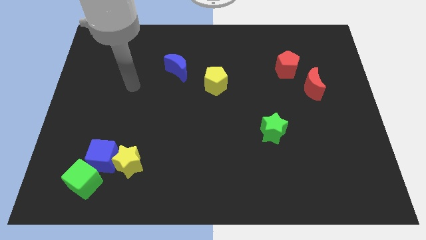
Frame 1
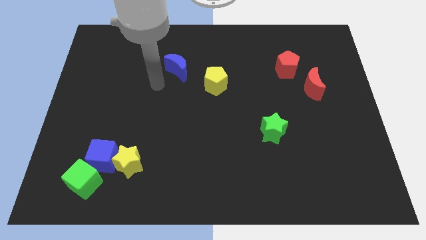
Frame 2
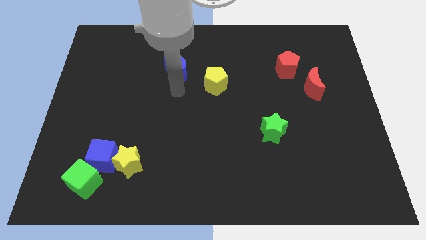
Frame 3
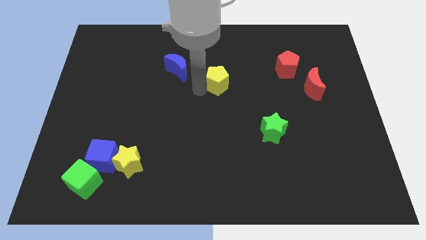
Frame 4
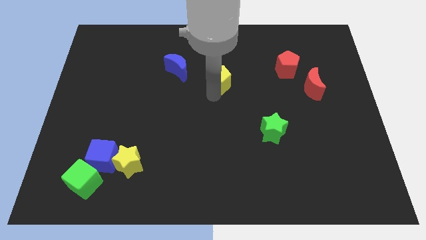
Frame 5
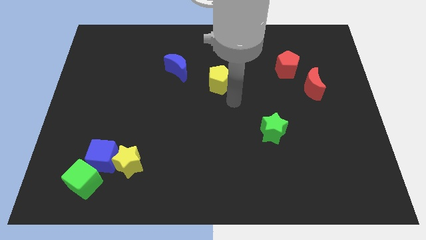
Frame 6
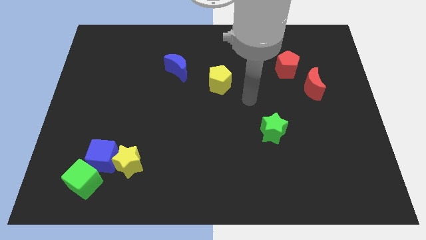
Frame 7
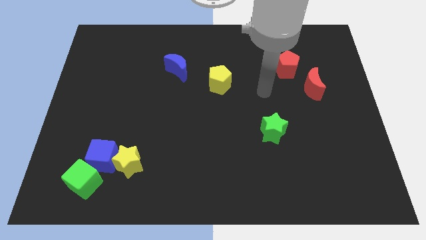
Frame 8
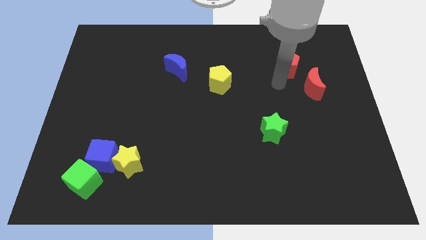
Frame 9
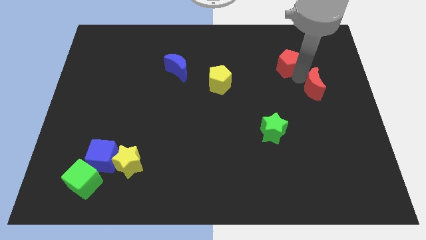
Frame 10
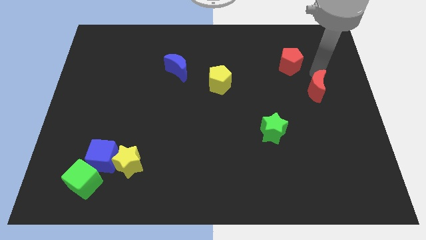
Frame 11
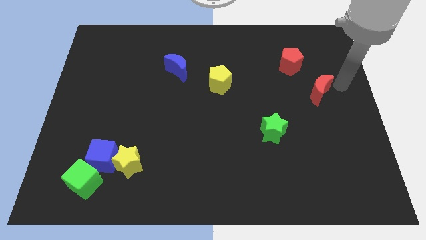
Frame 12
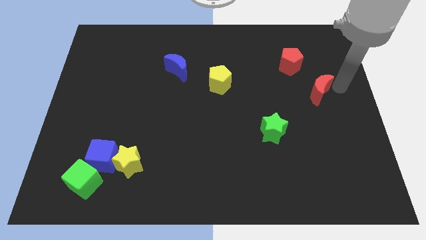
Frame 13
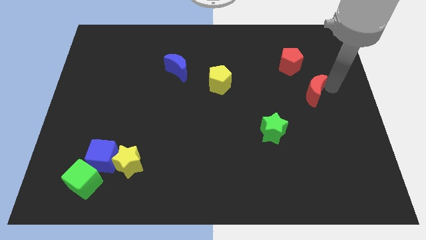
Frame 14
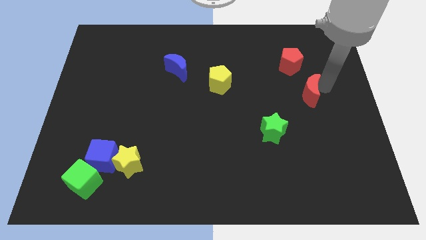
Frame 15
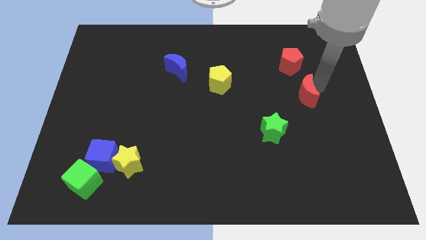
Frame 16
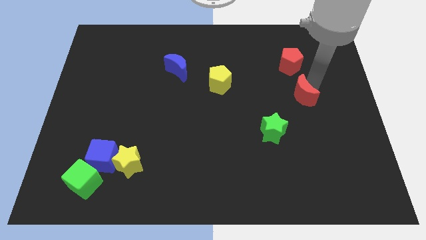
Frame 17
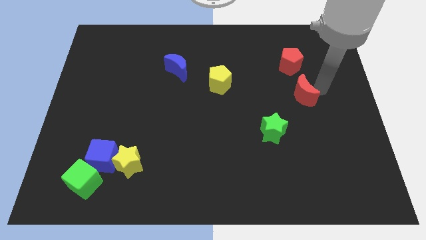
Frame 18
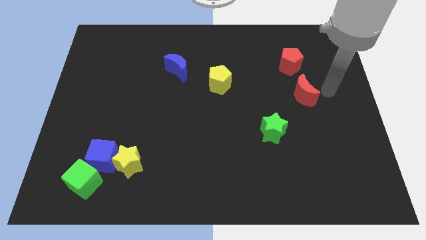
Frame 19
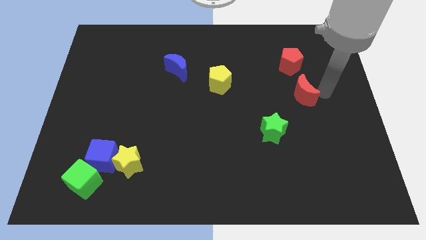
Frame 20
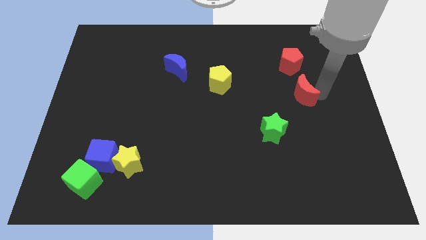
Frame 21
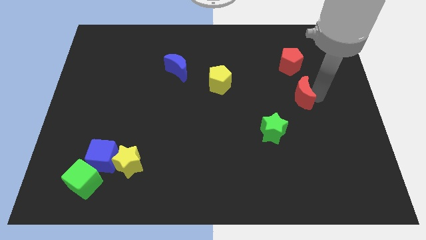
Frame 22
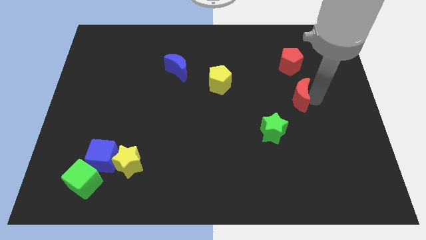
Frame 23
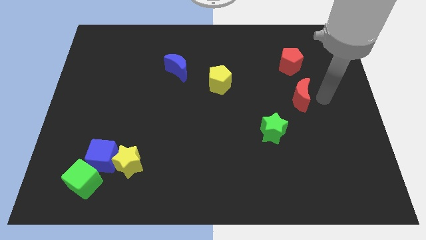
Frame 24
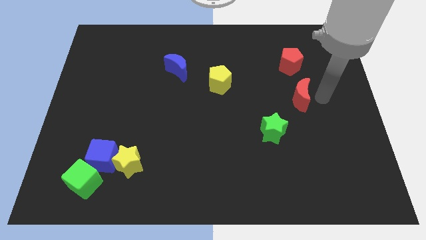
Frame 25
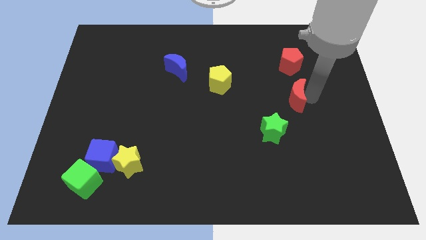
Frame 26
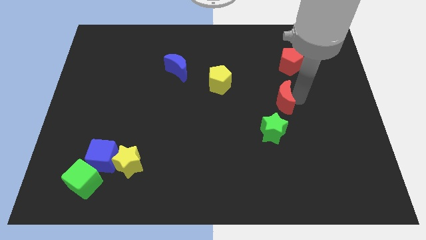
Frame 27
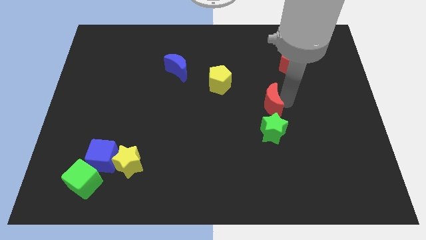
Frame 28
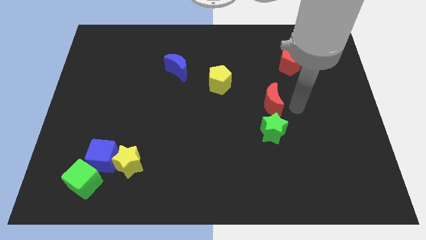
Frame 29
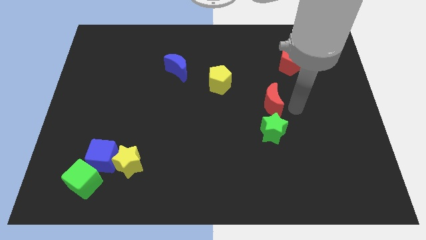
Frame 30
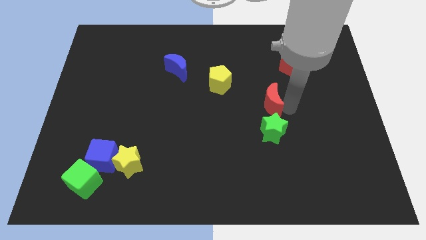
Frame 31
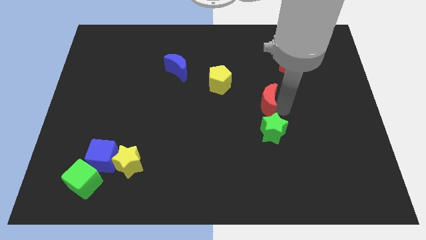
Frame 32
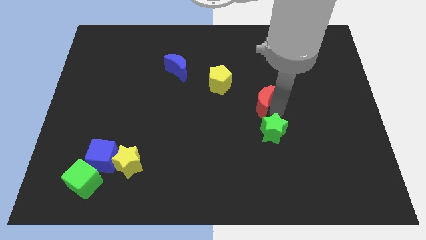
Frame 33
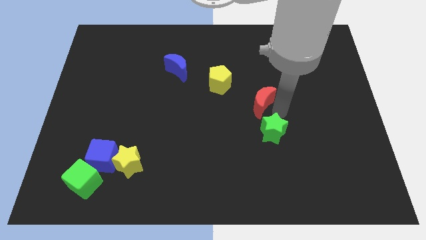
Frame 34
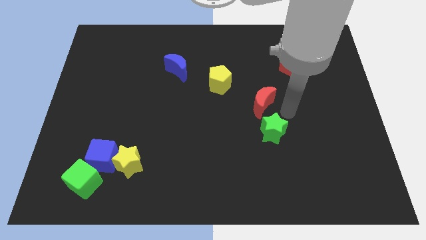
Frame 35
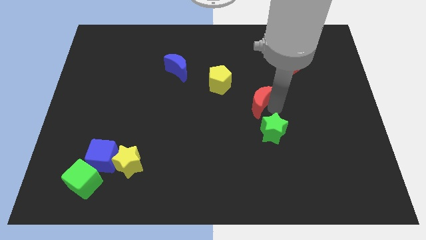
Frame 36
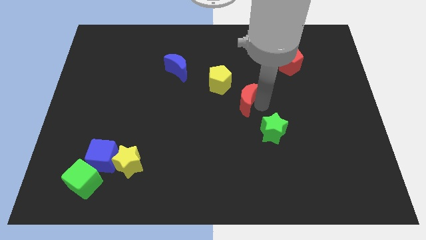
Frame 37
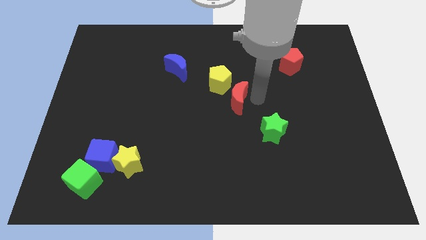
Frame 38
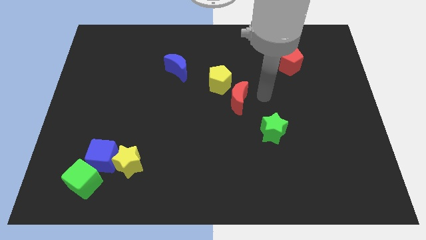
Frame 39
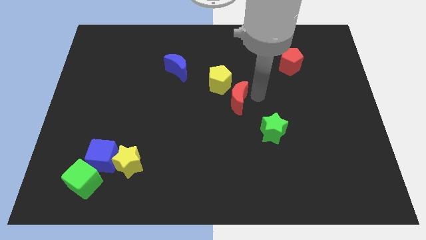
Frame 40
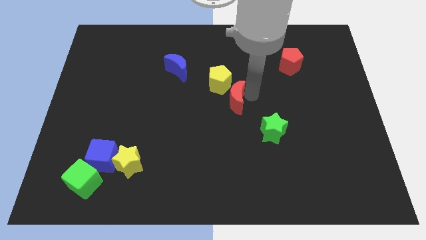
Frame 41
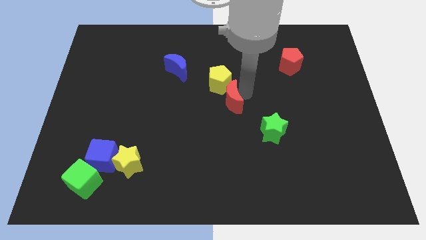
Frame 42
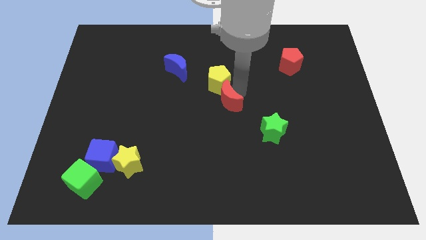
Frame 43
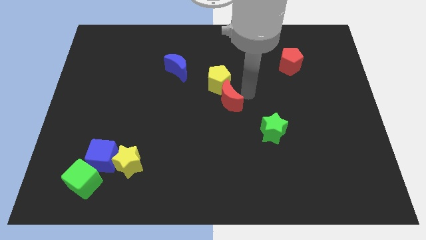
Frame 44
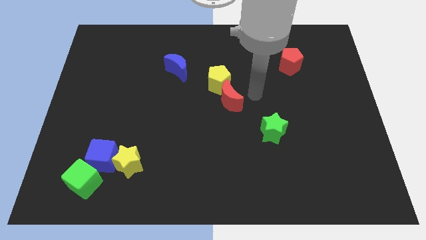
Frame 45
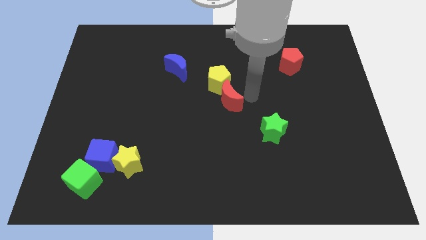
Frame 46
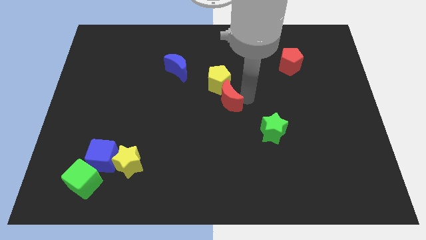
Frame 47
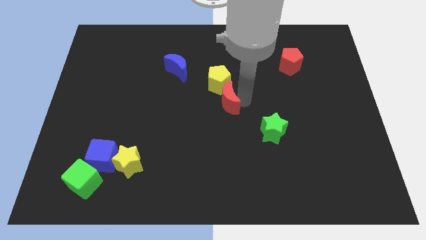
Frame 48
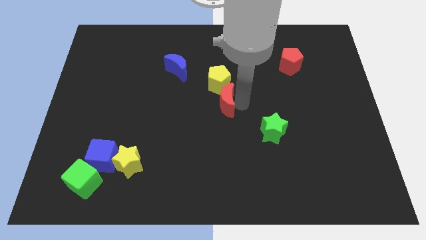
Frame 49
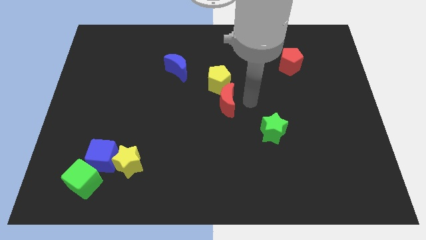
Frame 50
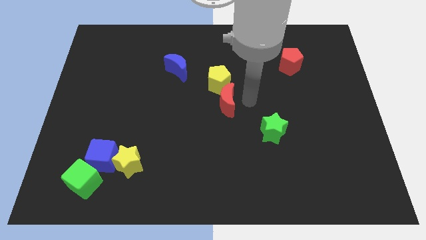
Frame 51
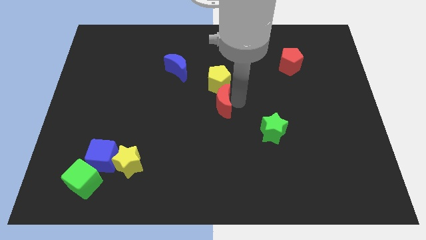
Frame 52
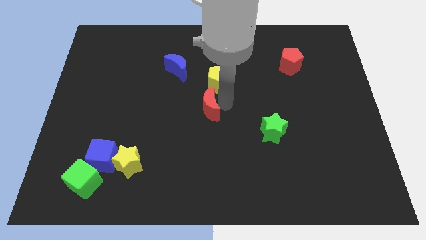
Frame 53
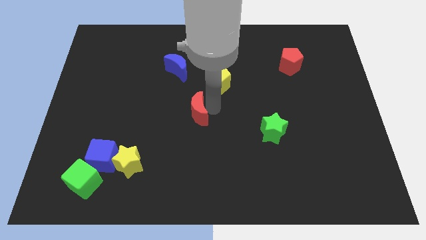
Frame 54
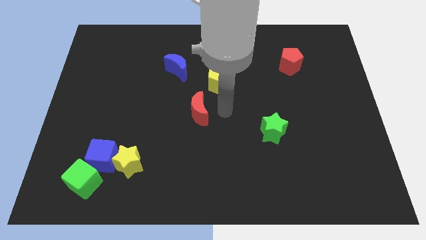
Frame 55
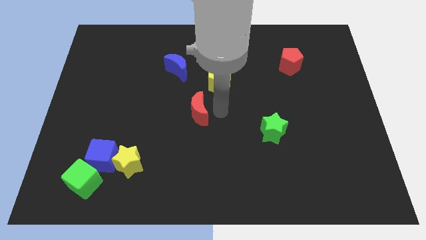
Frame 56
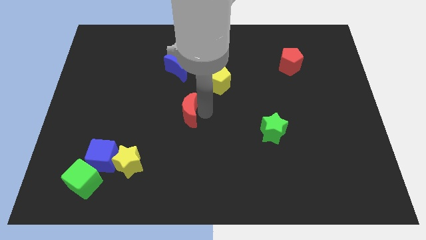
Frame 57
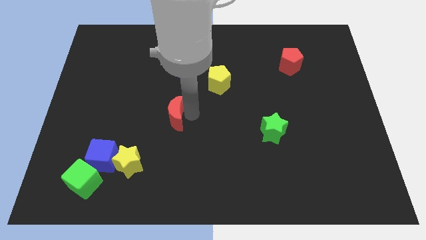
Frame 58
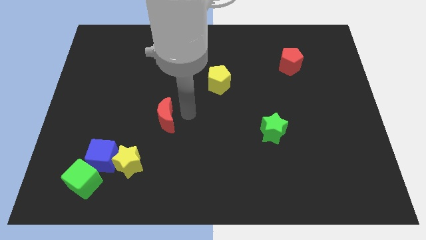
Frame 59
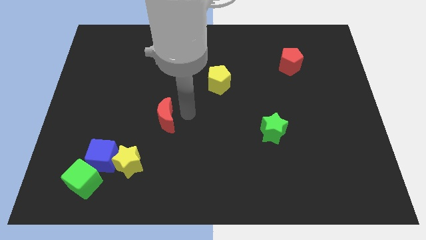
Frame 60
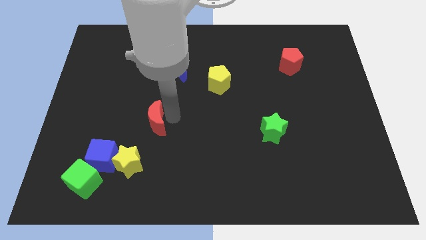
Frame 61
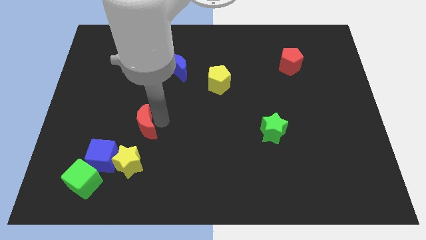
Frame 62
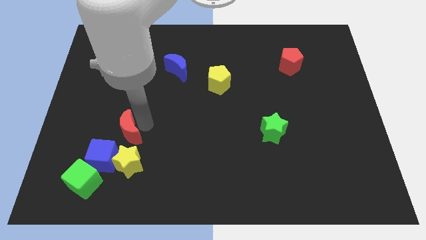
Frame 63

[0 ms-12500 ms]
slide the red moon to the top left of the yellow star

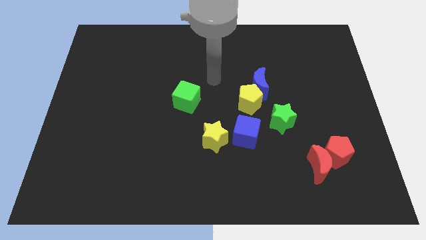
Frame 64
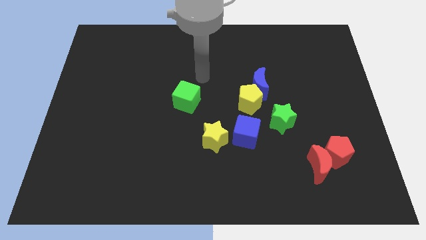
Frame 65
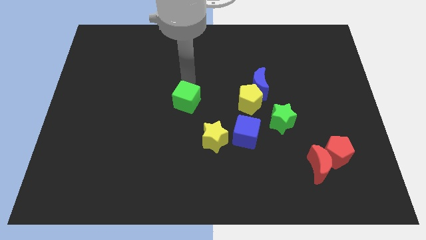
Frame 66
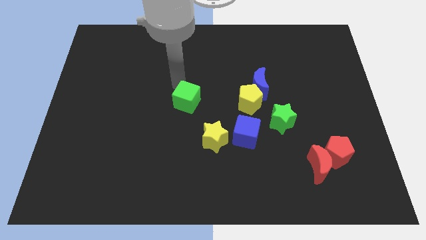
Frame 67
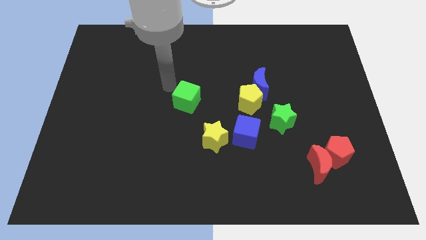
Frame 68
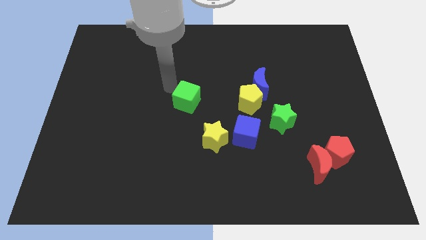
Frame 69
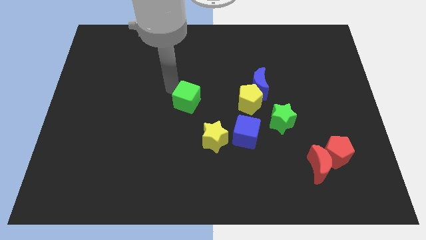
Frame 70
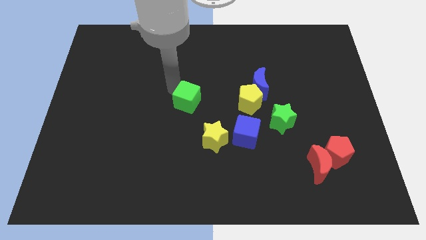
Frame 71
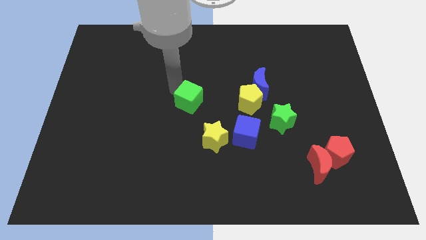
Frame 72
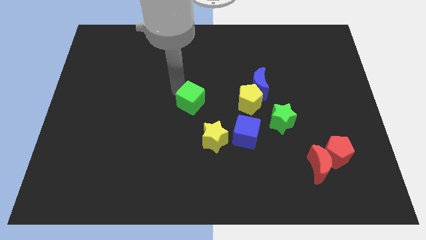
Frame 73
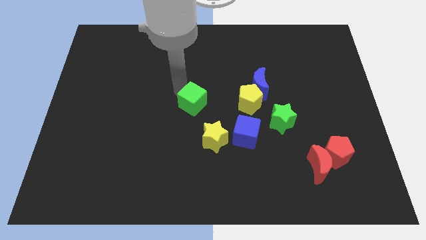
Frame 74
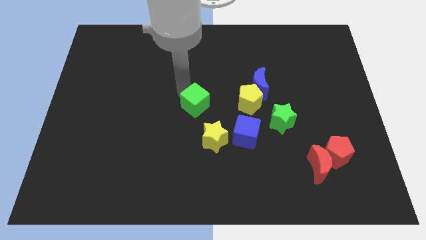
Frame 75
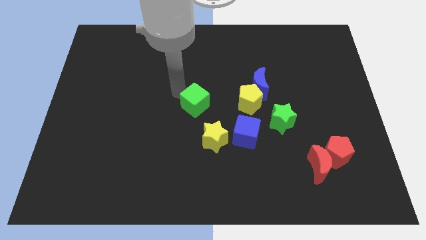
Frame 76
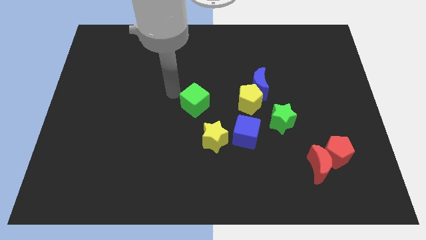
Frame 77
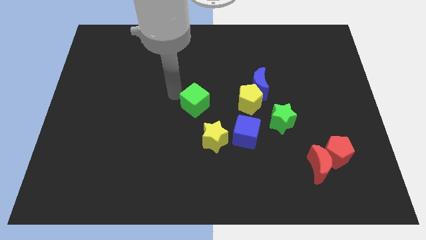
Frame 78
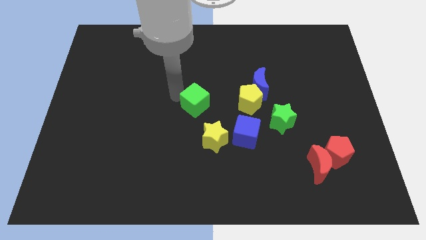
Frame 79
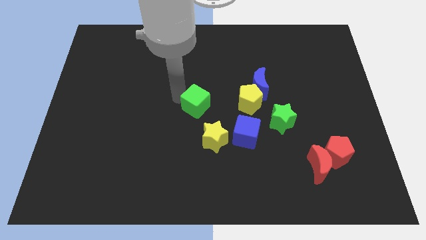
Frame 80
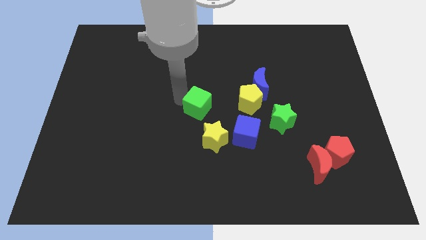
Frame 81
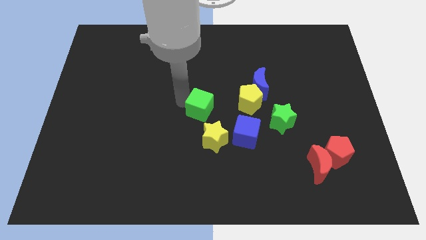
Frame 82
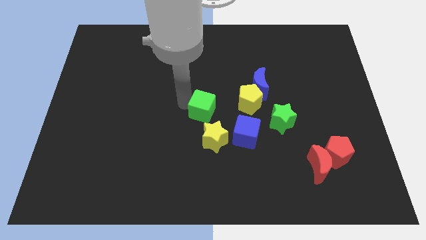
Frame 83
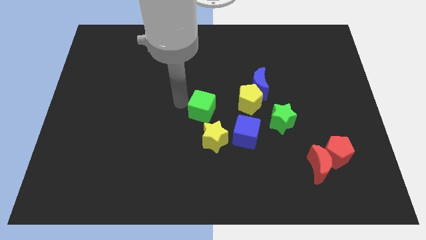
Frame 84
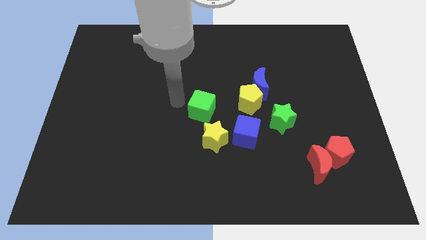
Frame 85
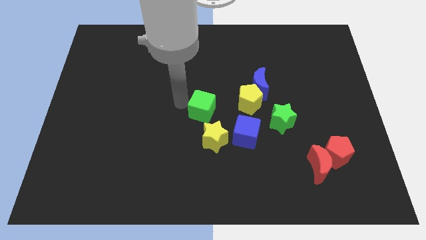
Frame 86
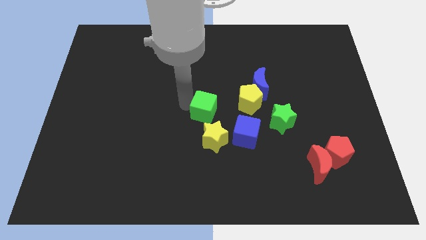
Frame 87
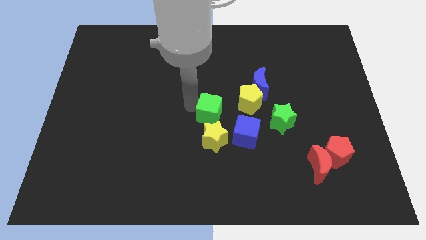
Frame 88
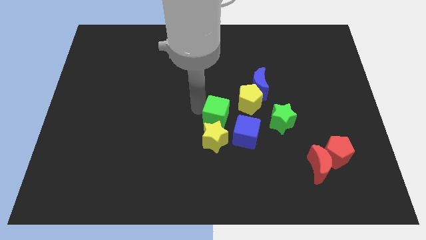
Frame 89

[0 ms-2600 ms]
put the green cube to the top right side of the yellow star
